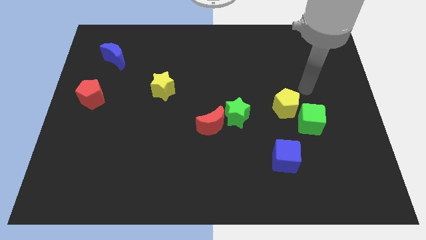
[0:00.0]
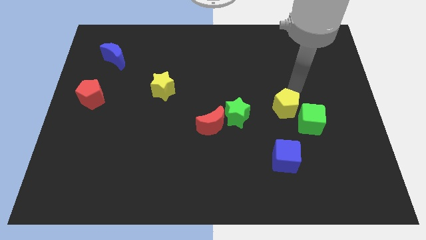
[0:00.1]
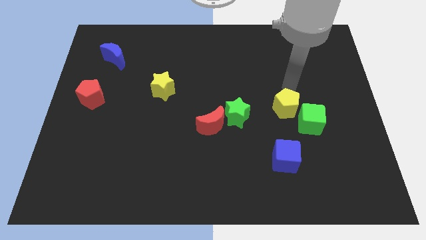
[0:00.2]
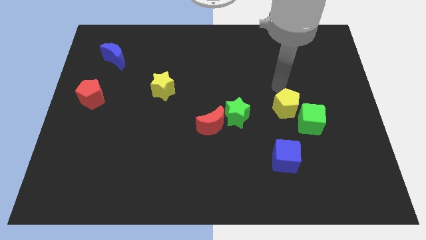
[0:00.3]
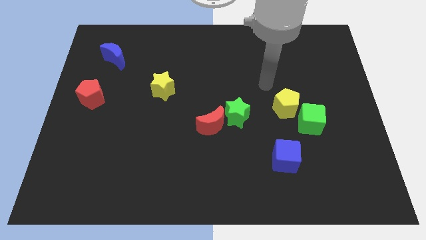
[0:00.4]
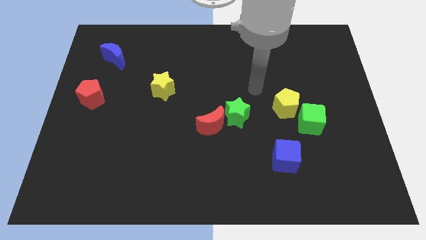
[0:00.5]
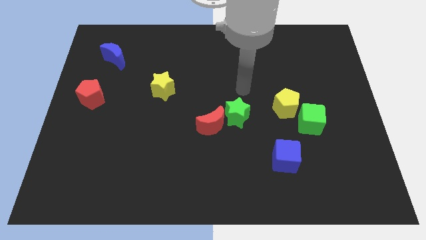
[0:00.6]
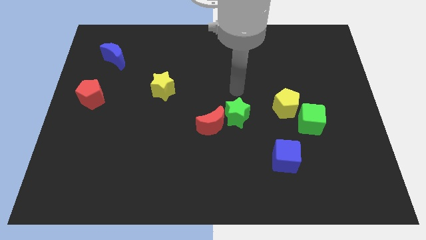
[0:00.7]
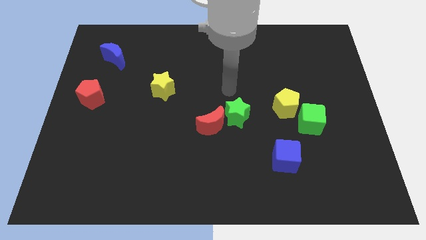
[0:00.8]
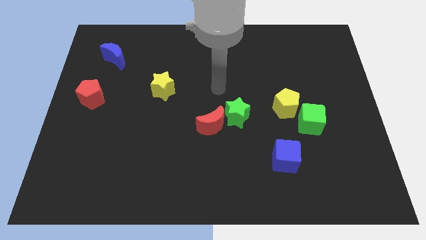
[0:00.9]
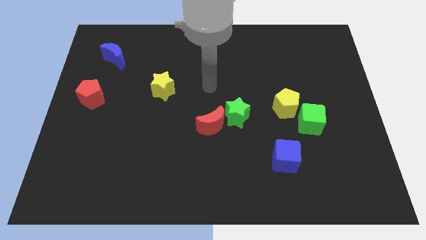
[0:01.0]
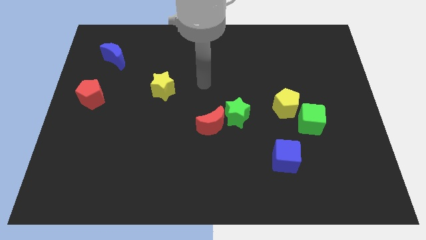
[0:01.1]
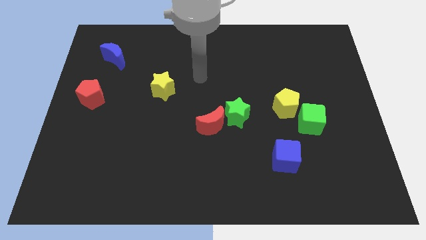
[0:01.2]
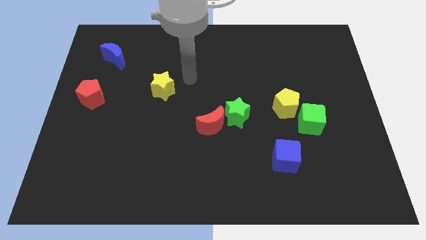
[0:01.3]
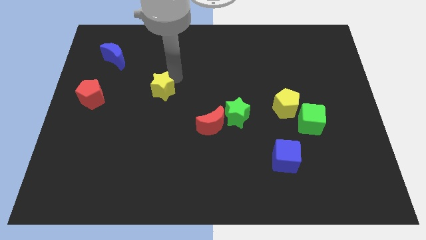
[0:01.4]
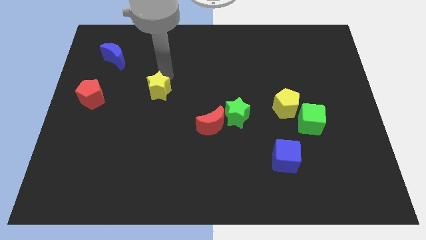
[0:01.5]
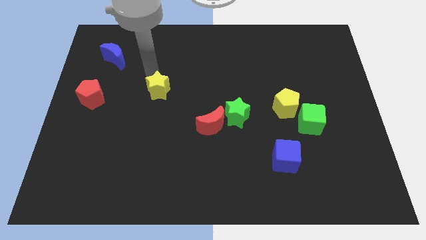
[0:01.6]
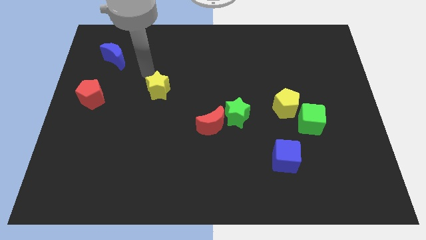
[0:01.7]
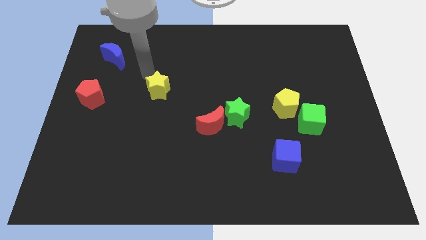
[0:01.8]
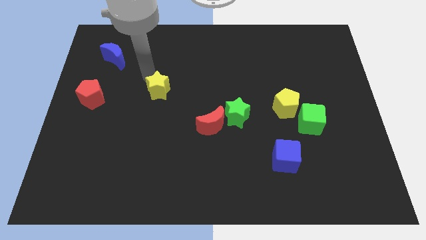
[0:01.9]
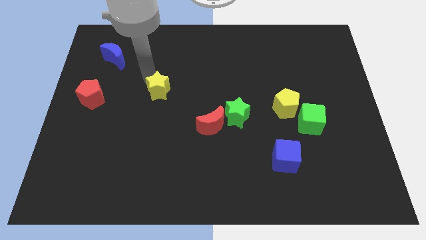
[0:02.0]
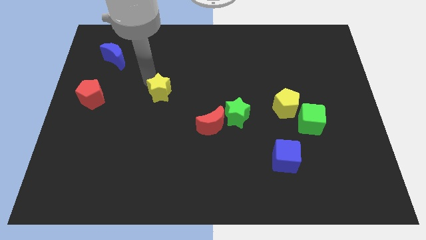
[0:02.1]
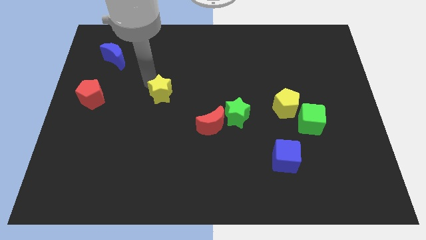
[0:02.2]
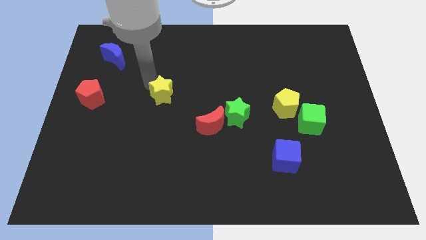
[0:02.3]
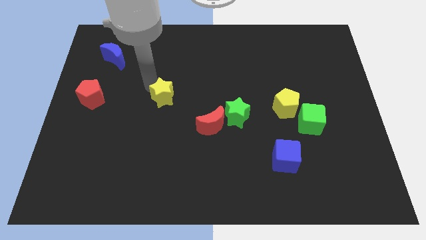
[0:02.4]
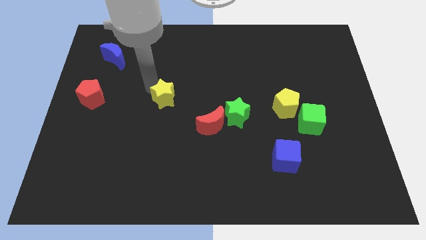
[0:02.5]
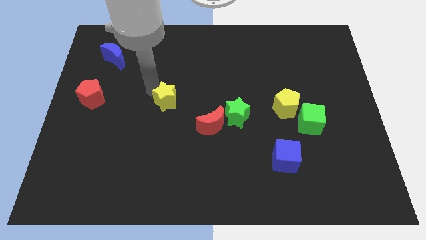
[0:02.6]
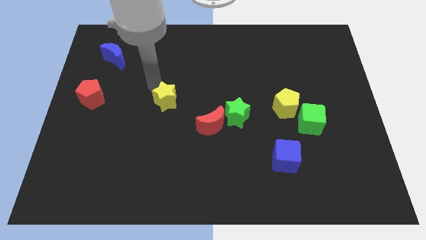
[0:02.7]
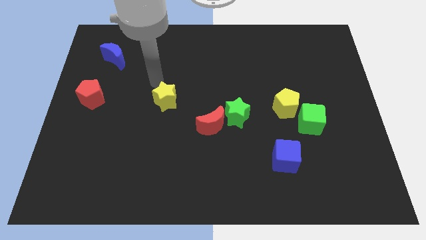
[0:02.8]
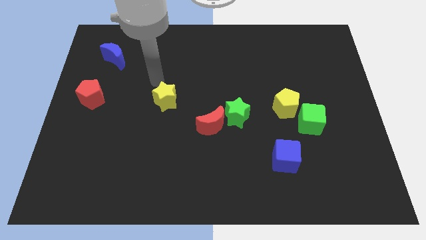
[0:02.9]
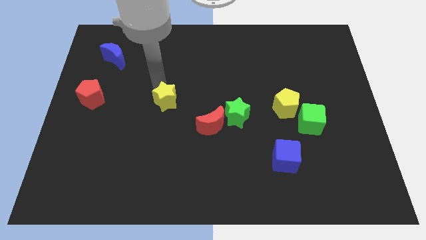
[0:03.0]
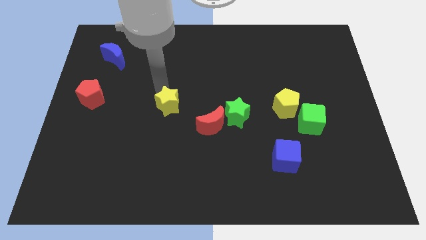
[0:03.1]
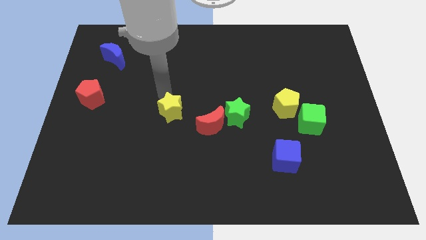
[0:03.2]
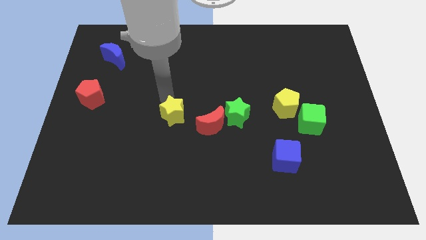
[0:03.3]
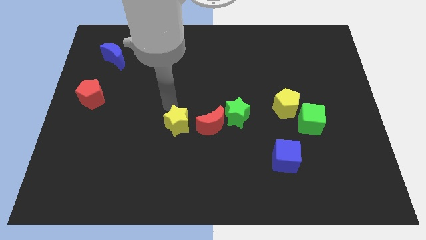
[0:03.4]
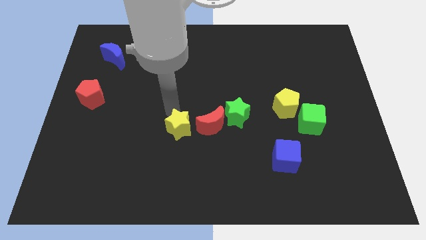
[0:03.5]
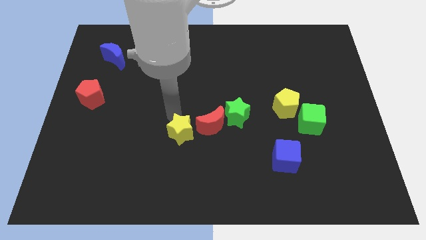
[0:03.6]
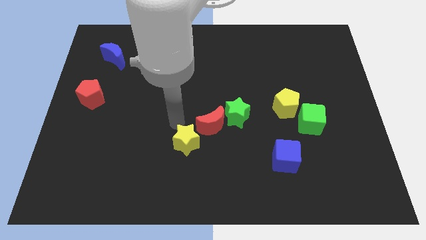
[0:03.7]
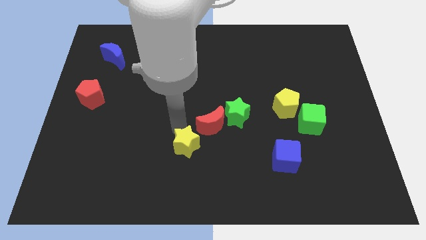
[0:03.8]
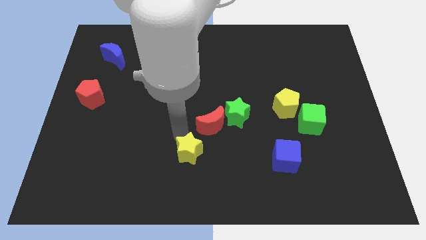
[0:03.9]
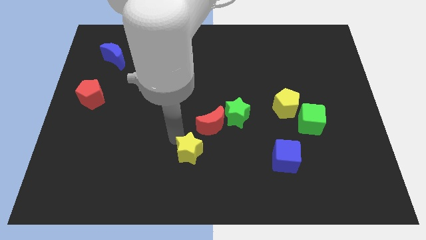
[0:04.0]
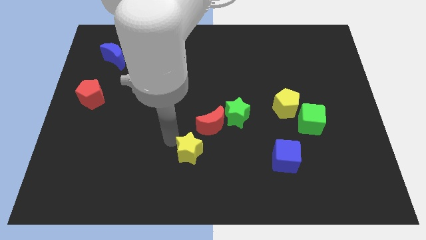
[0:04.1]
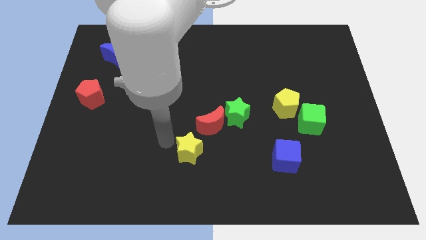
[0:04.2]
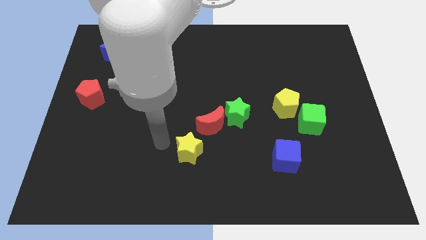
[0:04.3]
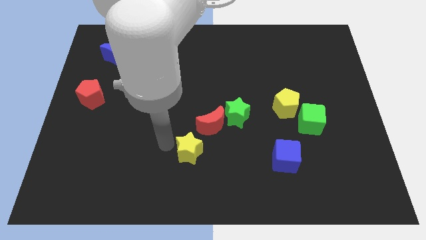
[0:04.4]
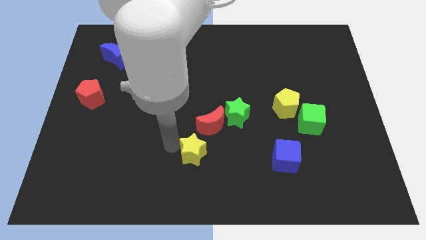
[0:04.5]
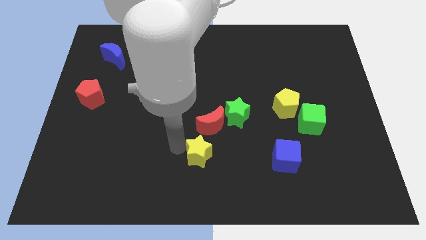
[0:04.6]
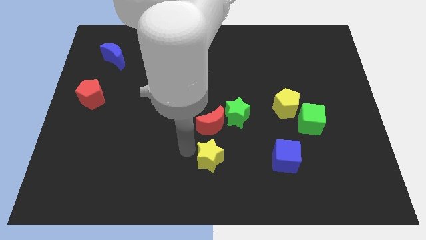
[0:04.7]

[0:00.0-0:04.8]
push the yellow star downwards and right

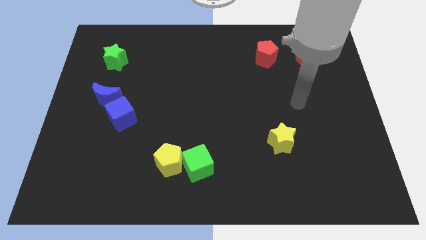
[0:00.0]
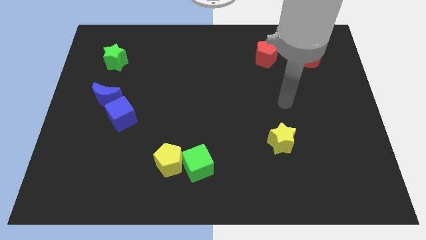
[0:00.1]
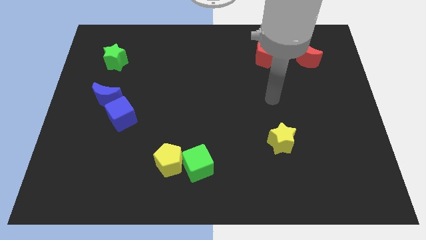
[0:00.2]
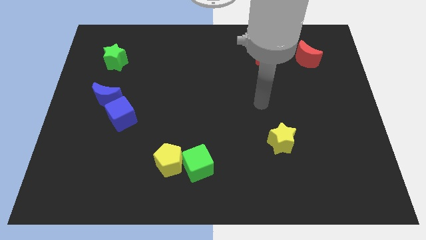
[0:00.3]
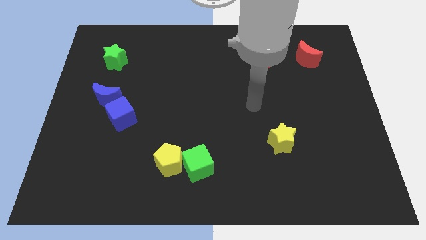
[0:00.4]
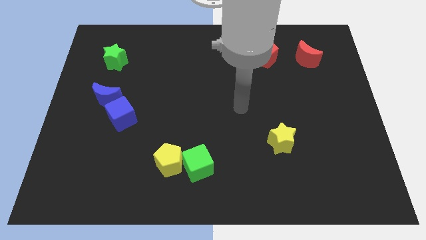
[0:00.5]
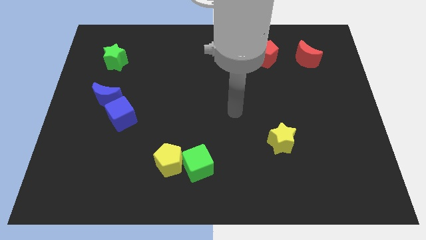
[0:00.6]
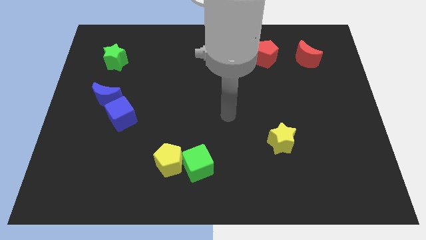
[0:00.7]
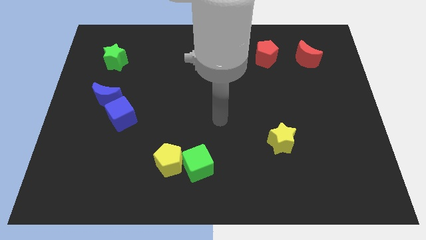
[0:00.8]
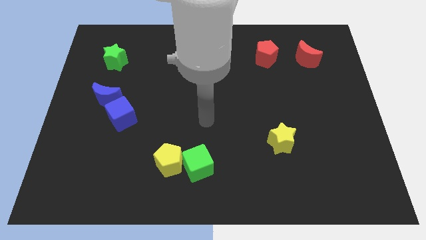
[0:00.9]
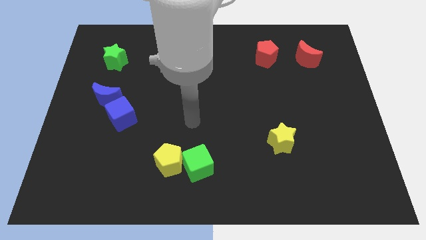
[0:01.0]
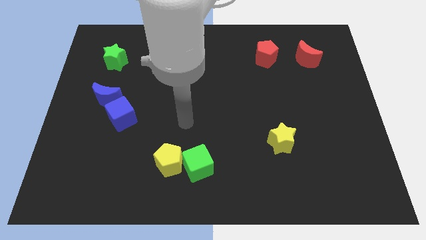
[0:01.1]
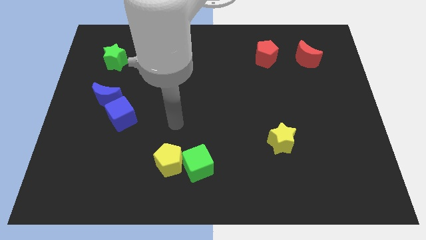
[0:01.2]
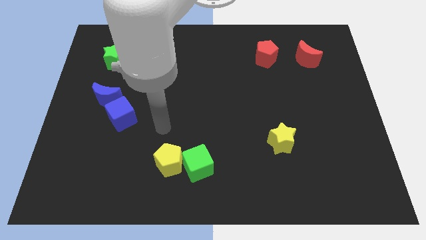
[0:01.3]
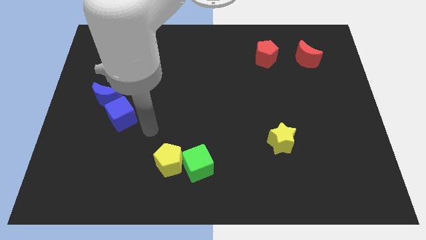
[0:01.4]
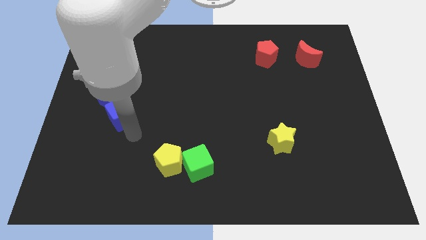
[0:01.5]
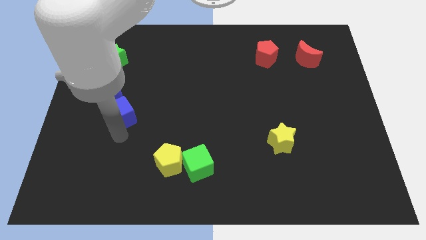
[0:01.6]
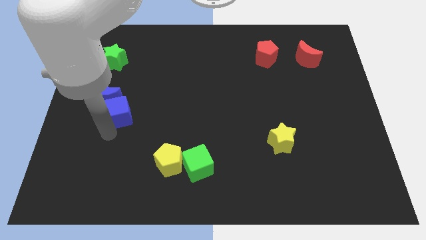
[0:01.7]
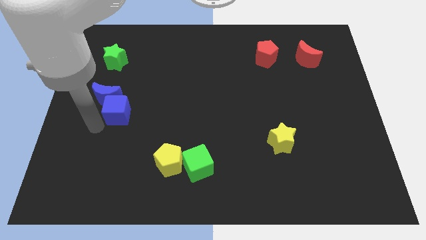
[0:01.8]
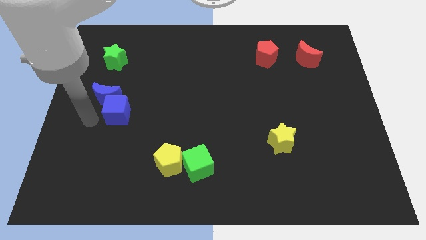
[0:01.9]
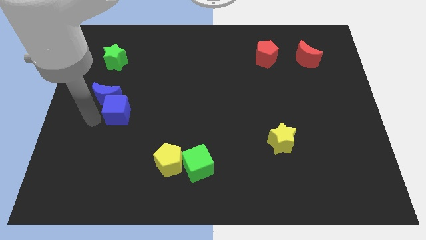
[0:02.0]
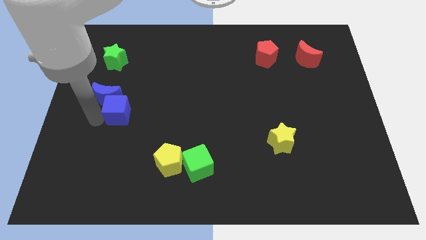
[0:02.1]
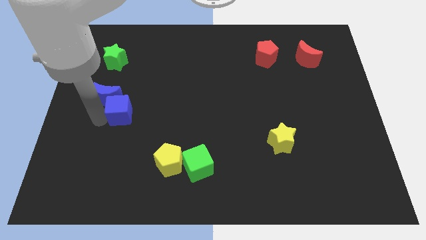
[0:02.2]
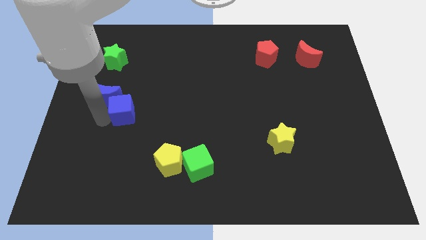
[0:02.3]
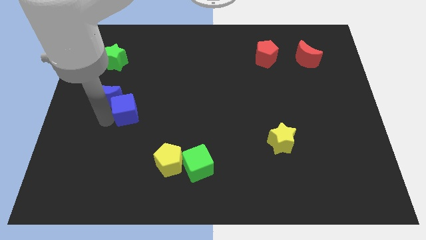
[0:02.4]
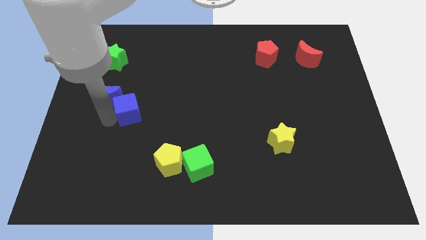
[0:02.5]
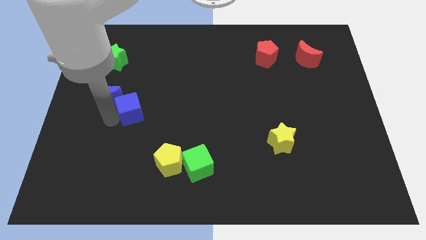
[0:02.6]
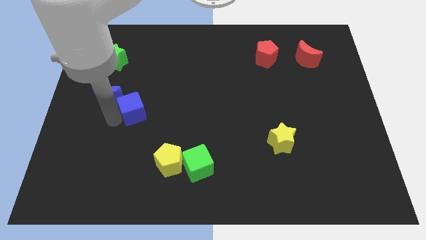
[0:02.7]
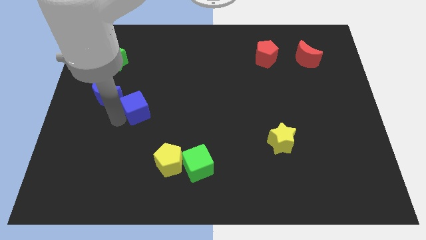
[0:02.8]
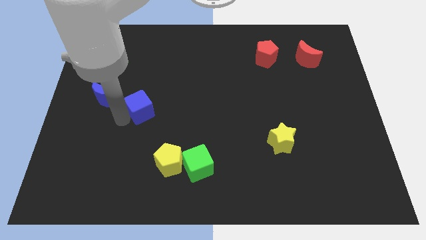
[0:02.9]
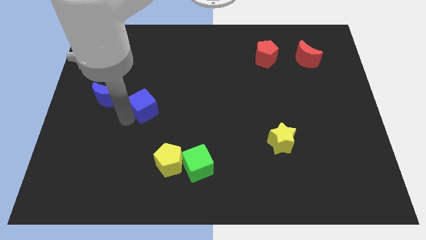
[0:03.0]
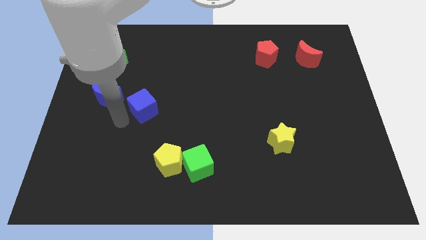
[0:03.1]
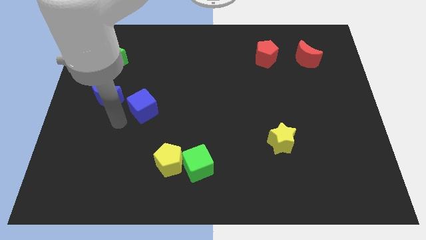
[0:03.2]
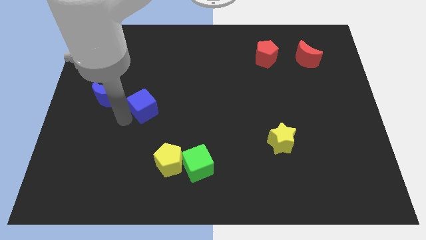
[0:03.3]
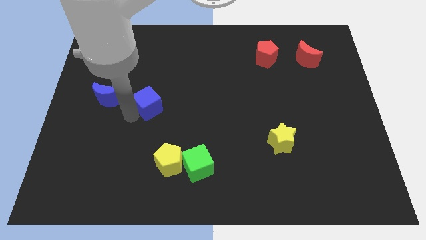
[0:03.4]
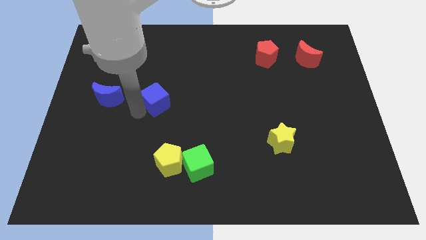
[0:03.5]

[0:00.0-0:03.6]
slightly push the blue cube upwards and to the right

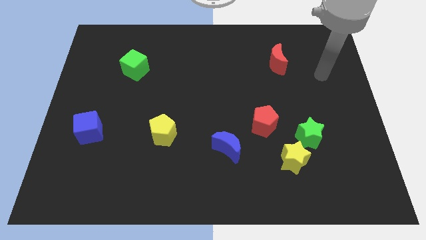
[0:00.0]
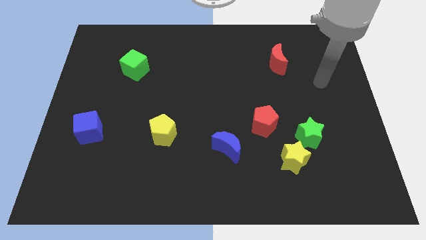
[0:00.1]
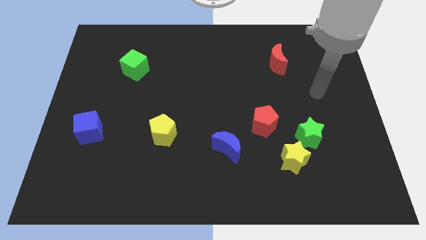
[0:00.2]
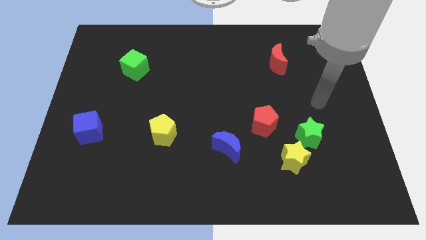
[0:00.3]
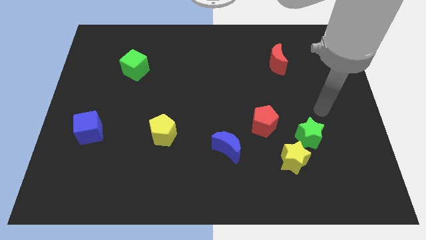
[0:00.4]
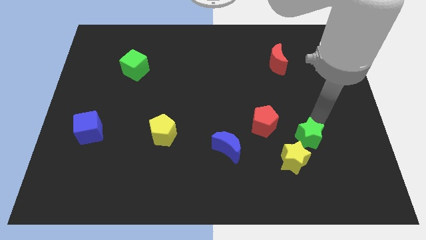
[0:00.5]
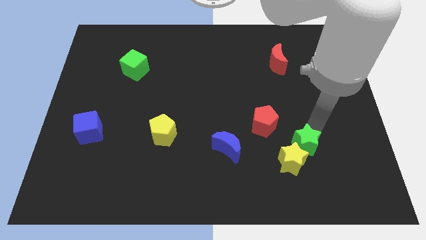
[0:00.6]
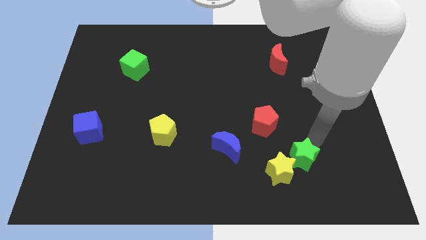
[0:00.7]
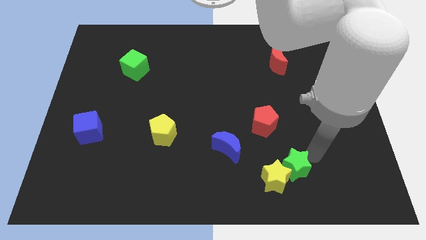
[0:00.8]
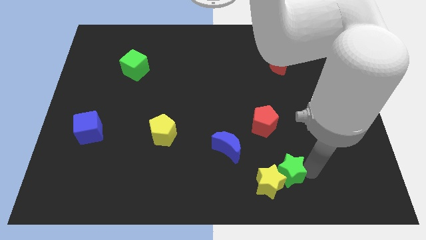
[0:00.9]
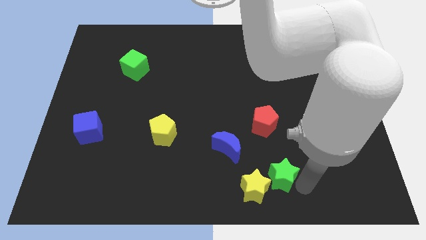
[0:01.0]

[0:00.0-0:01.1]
push the yellow star a little to the left
